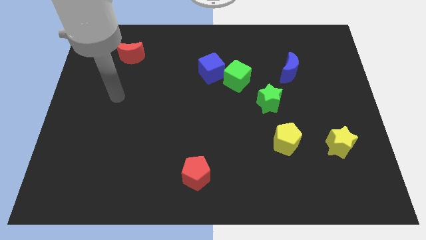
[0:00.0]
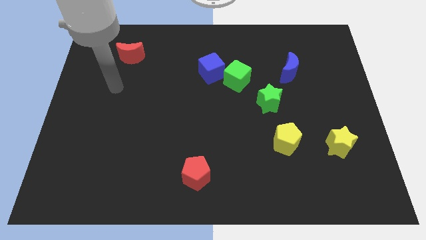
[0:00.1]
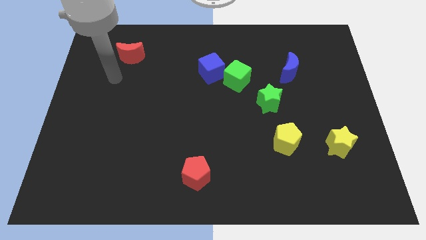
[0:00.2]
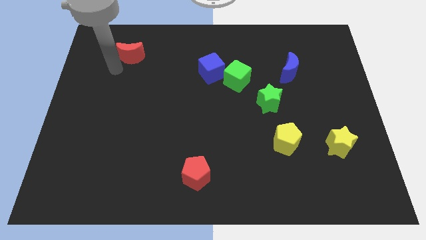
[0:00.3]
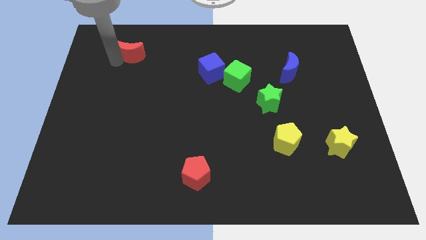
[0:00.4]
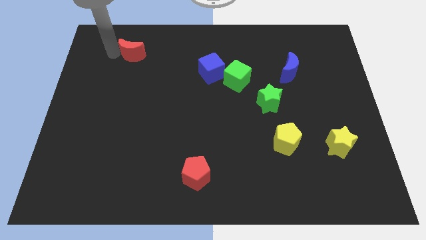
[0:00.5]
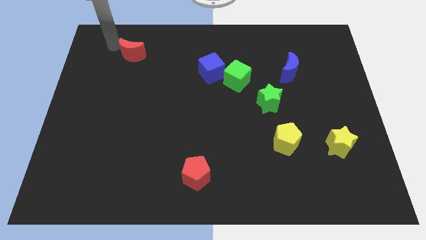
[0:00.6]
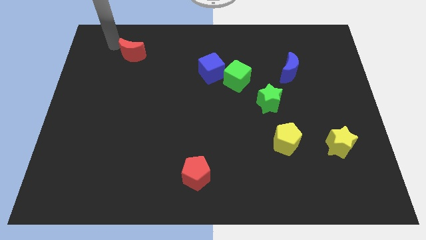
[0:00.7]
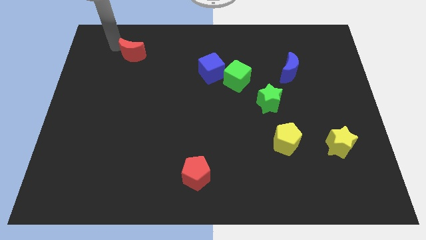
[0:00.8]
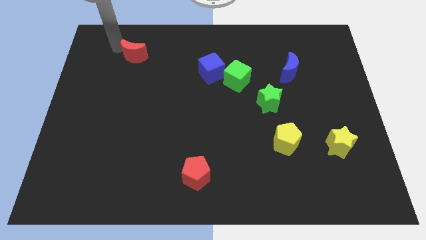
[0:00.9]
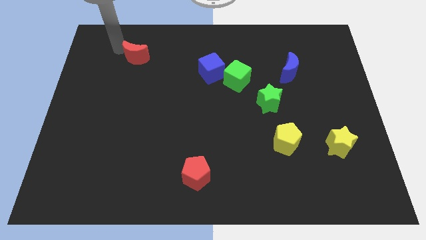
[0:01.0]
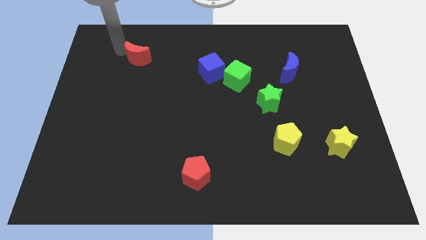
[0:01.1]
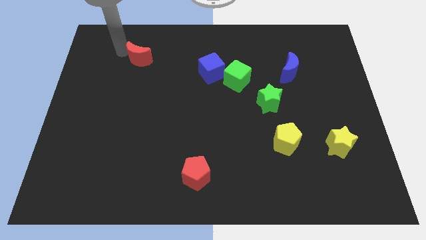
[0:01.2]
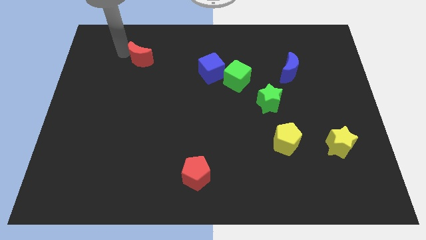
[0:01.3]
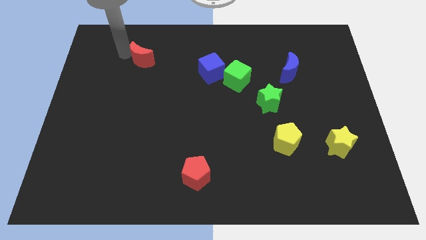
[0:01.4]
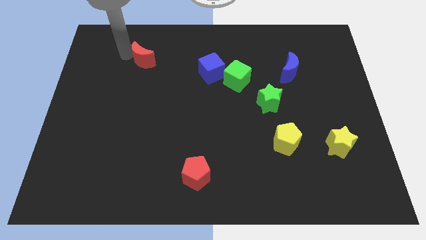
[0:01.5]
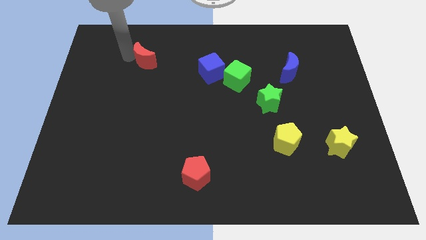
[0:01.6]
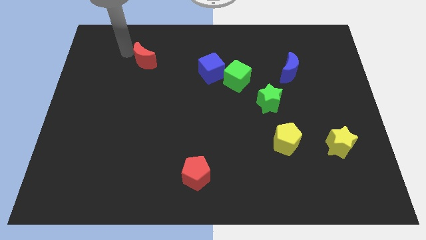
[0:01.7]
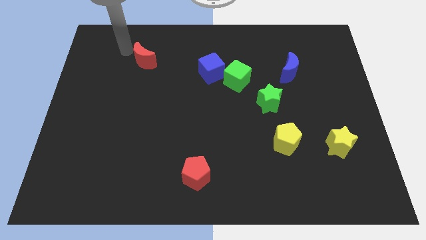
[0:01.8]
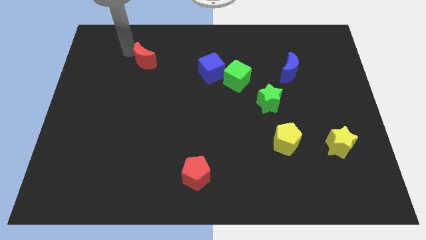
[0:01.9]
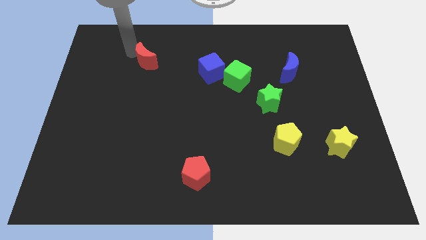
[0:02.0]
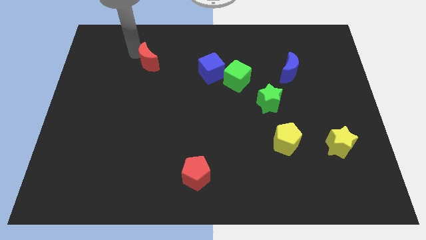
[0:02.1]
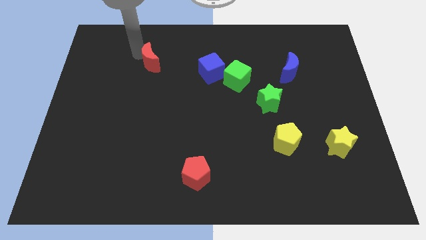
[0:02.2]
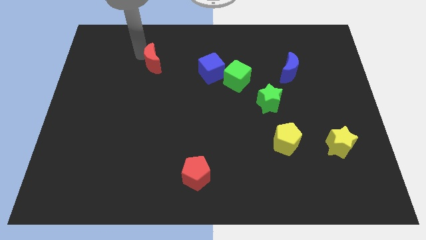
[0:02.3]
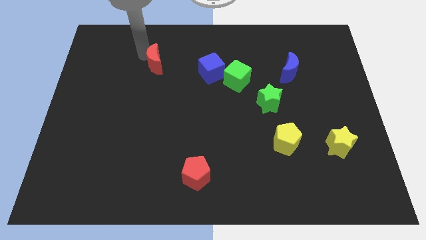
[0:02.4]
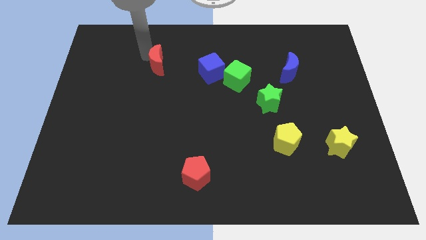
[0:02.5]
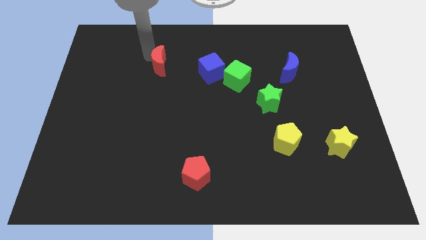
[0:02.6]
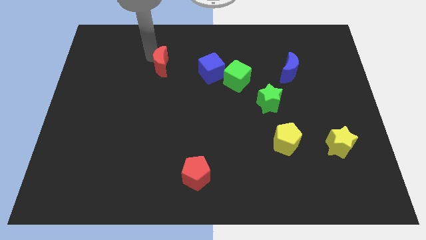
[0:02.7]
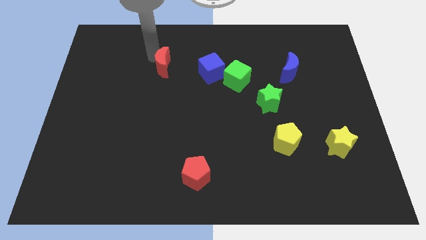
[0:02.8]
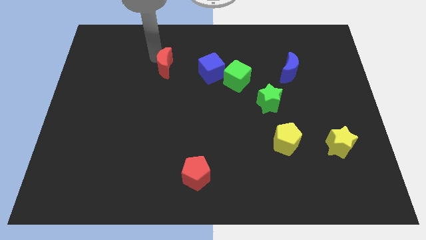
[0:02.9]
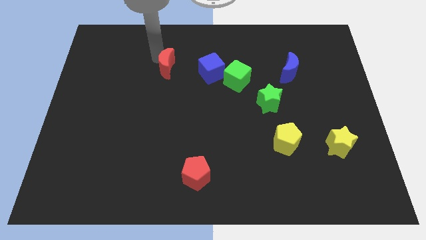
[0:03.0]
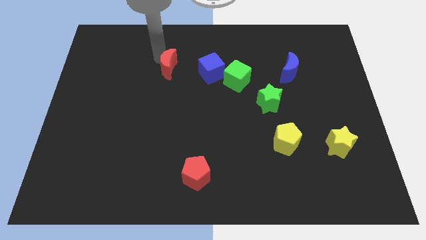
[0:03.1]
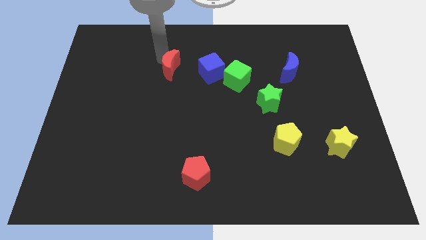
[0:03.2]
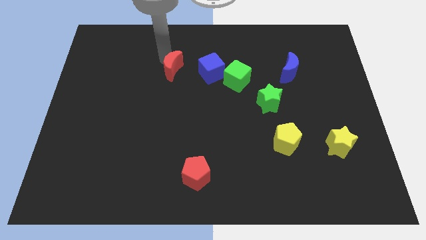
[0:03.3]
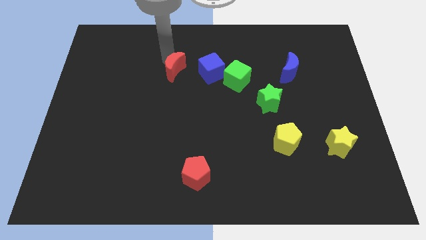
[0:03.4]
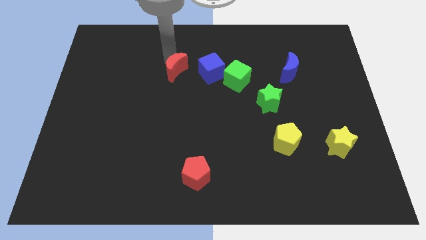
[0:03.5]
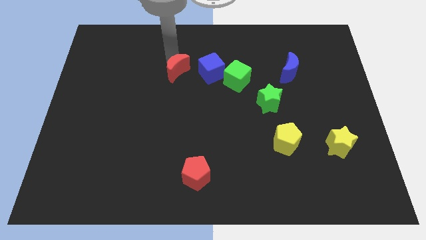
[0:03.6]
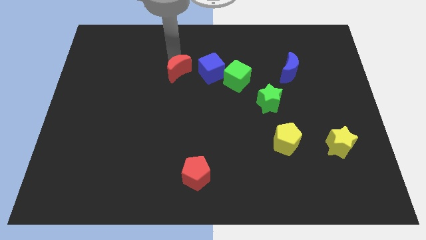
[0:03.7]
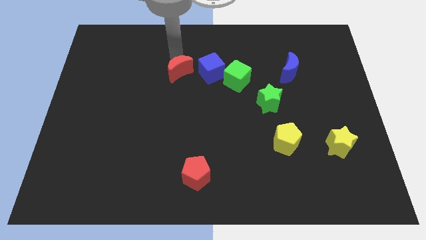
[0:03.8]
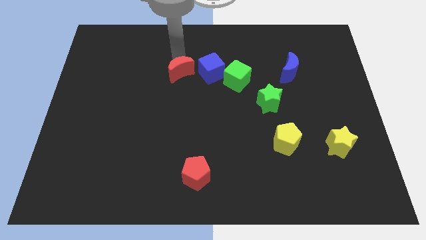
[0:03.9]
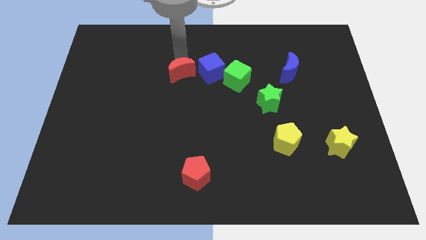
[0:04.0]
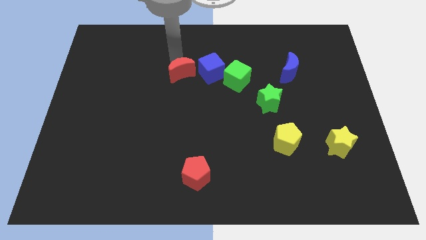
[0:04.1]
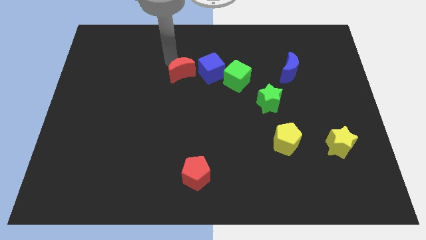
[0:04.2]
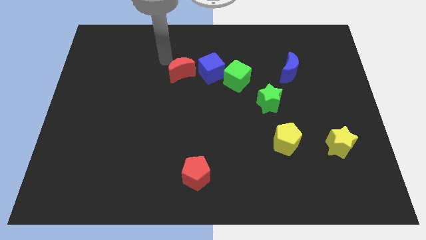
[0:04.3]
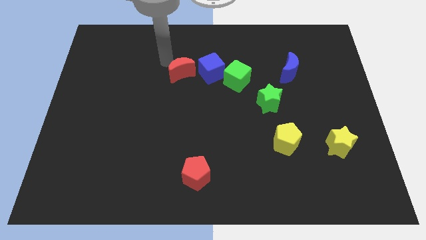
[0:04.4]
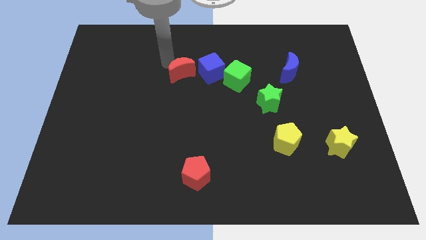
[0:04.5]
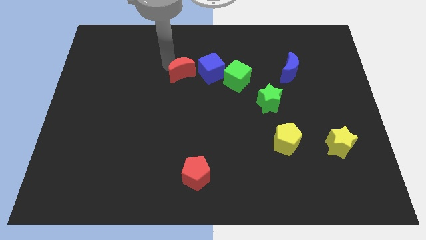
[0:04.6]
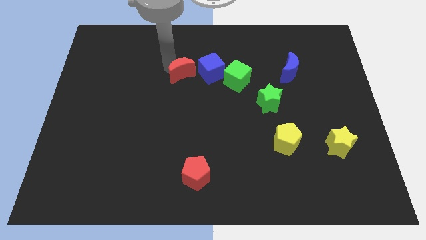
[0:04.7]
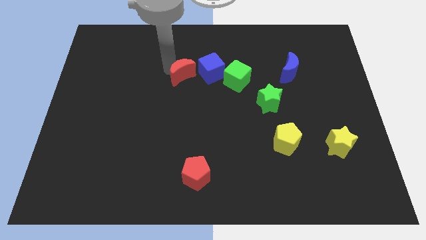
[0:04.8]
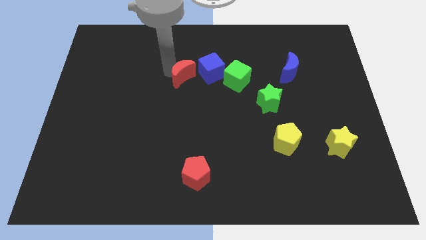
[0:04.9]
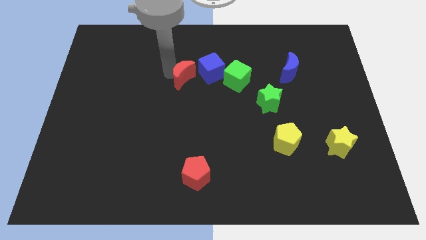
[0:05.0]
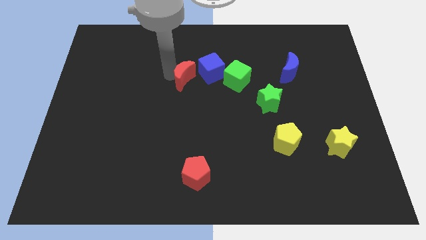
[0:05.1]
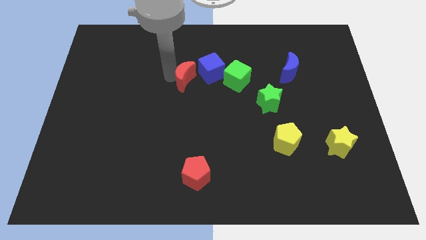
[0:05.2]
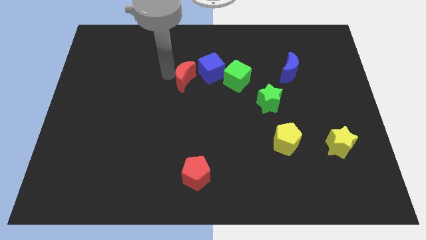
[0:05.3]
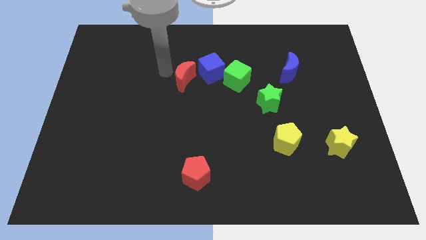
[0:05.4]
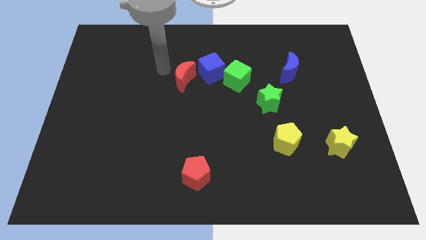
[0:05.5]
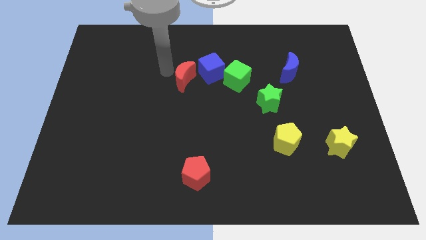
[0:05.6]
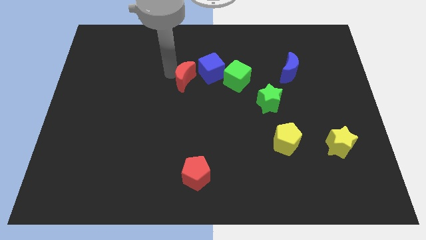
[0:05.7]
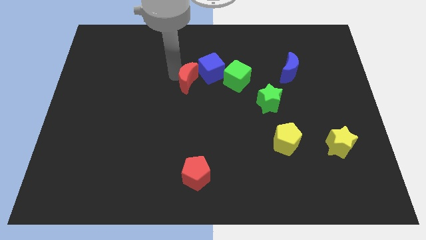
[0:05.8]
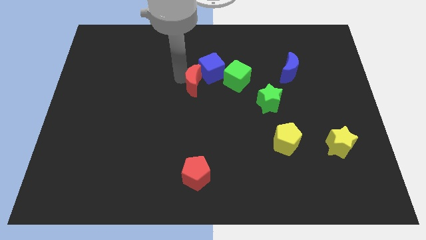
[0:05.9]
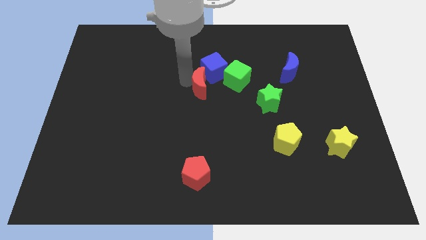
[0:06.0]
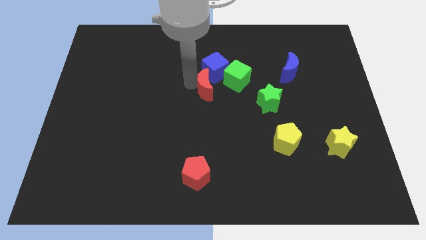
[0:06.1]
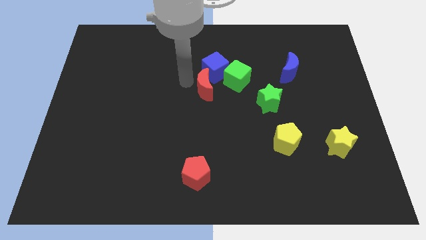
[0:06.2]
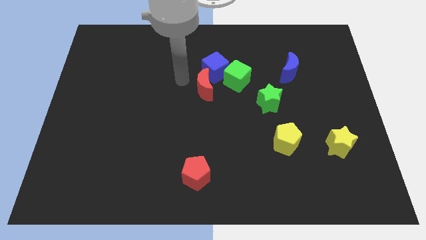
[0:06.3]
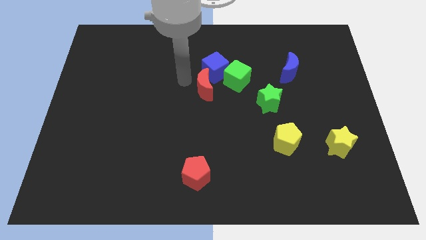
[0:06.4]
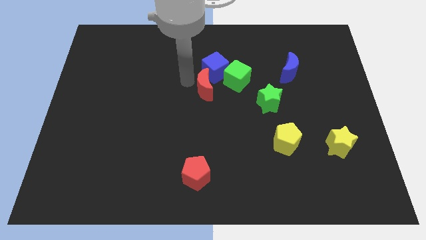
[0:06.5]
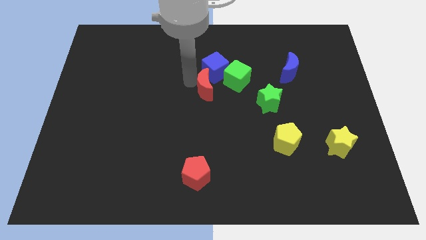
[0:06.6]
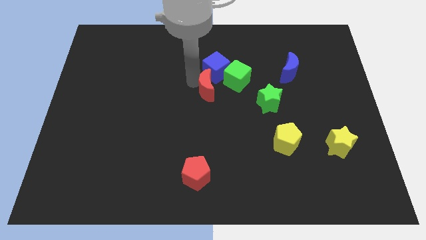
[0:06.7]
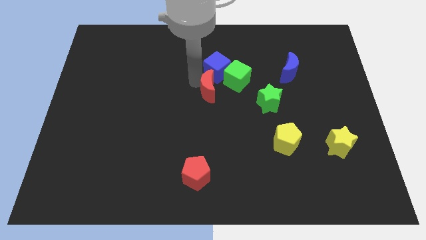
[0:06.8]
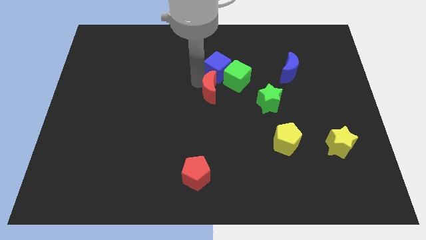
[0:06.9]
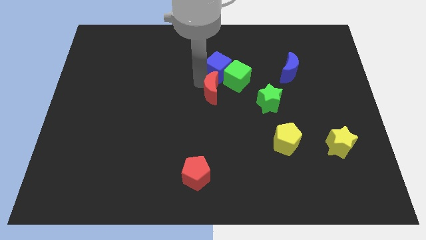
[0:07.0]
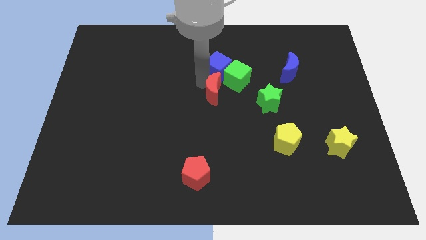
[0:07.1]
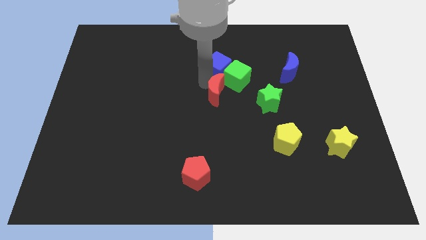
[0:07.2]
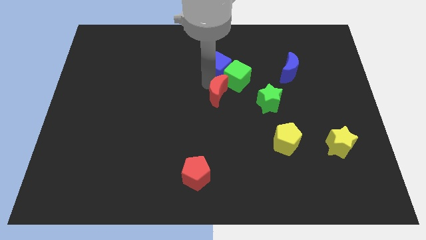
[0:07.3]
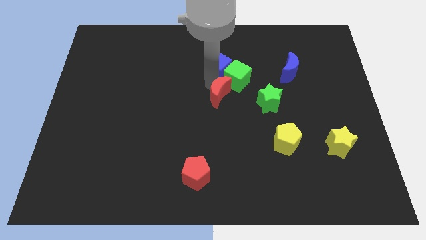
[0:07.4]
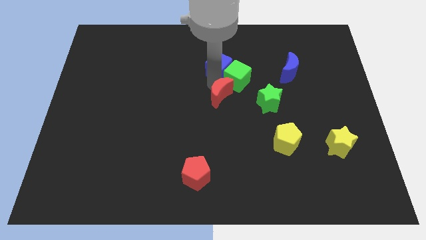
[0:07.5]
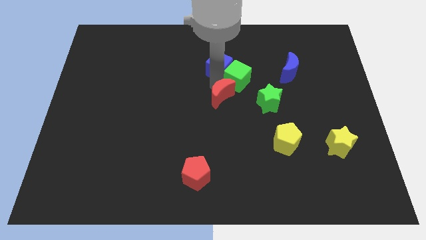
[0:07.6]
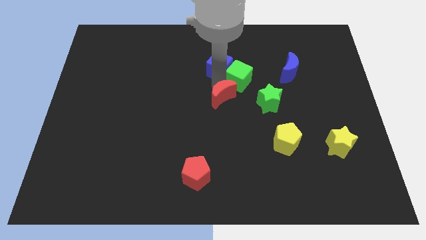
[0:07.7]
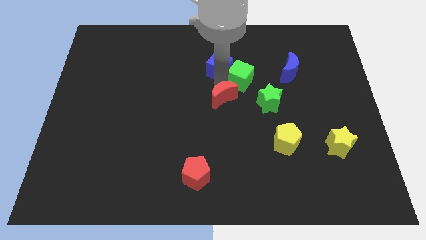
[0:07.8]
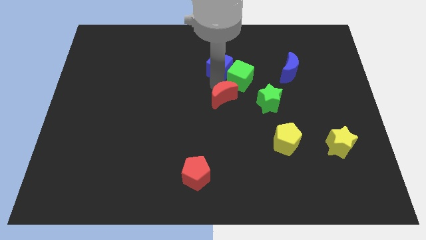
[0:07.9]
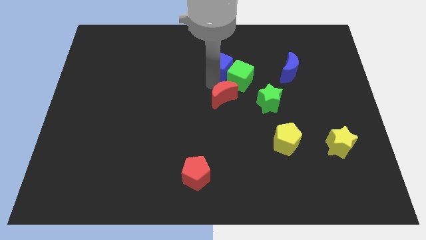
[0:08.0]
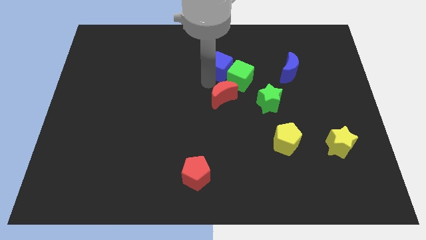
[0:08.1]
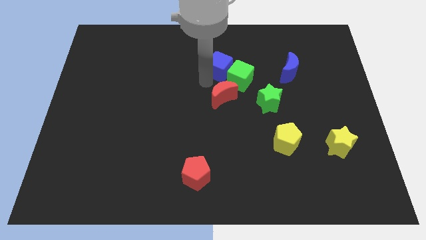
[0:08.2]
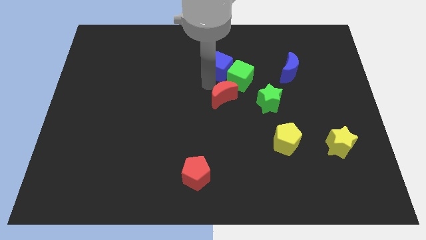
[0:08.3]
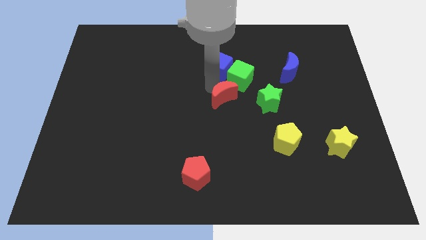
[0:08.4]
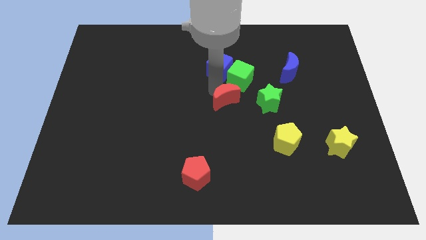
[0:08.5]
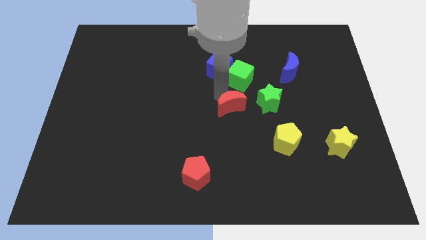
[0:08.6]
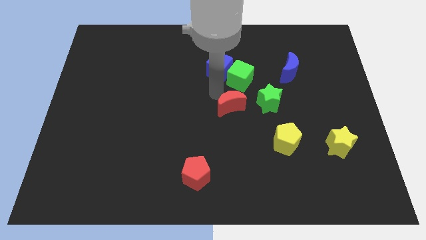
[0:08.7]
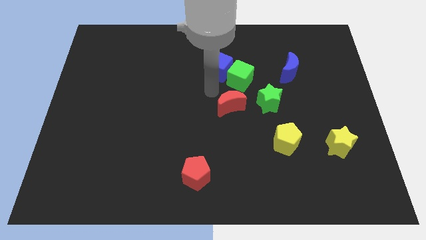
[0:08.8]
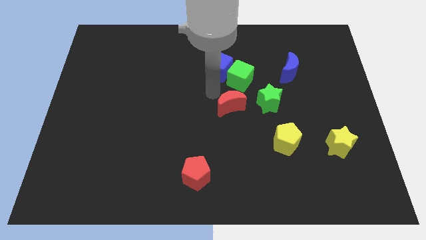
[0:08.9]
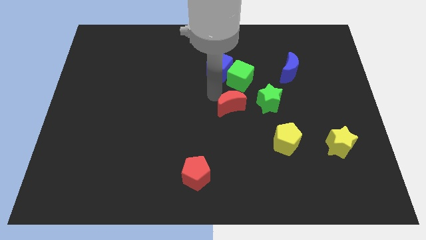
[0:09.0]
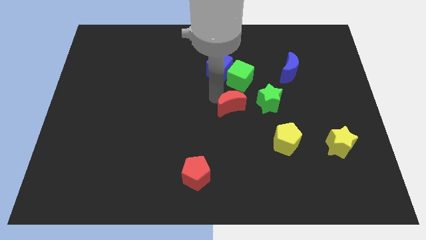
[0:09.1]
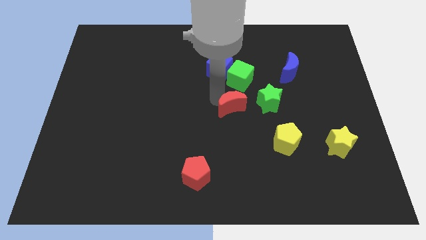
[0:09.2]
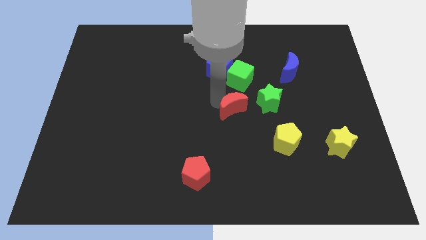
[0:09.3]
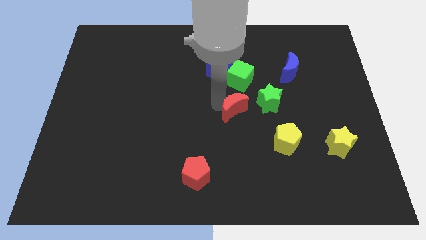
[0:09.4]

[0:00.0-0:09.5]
put the red moon to the bottom left of the green star
